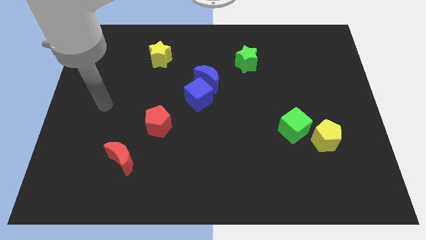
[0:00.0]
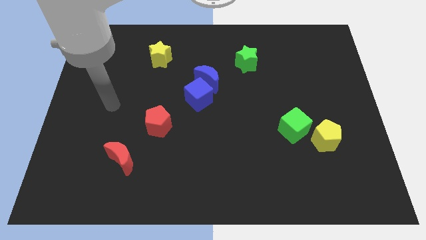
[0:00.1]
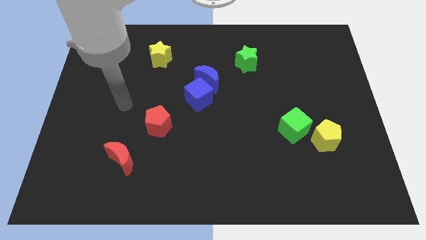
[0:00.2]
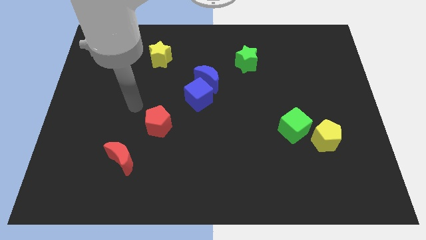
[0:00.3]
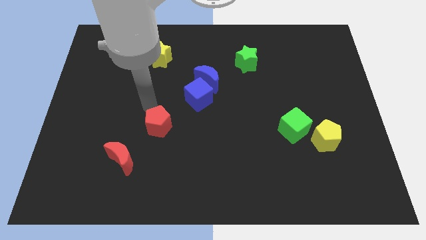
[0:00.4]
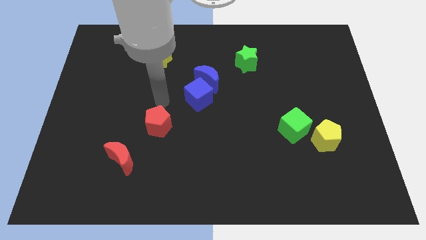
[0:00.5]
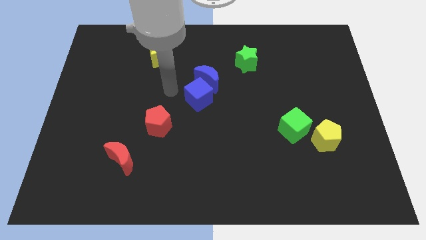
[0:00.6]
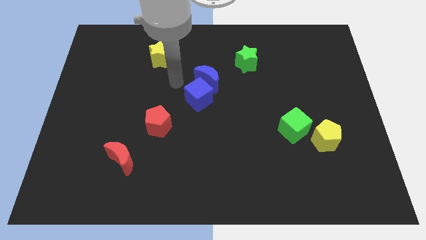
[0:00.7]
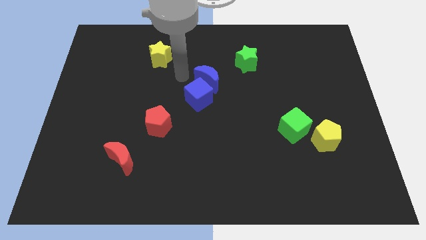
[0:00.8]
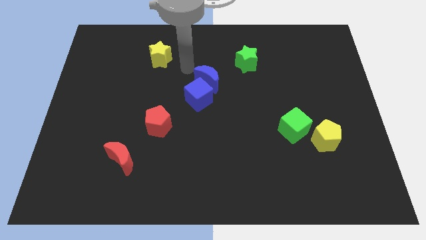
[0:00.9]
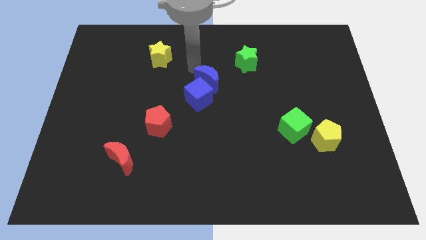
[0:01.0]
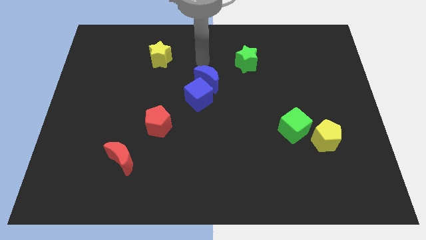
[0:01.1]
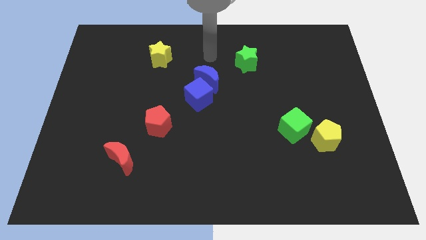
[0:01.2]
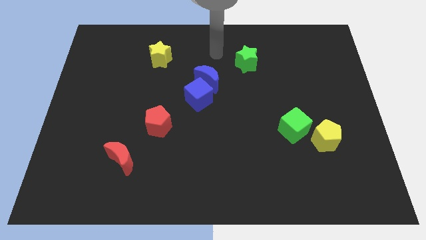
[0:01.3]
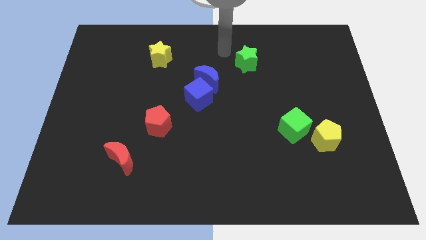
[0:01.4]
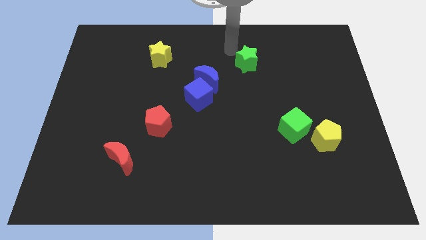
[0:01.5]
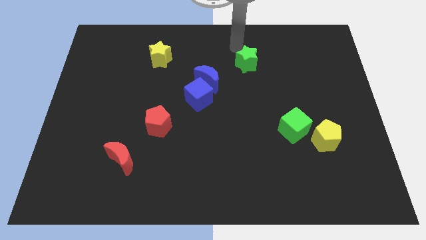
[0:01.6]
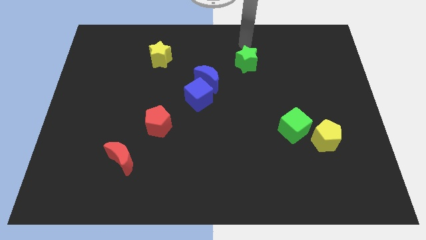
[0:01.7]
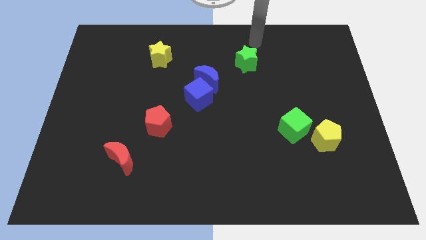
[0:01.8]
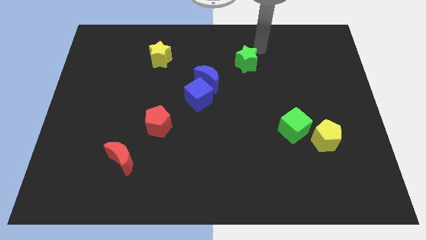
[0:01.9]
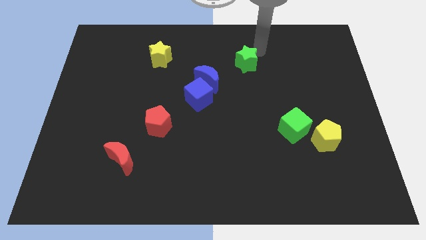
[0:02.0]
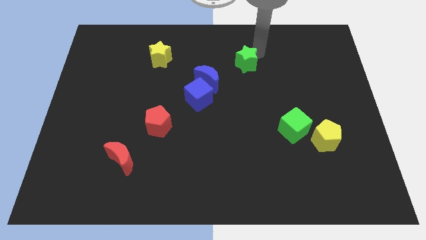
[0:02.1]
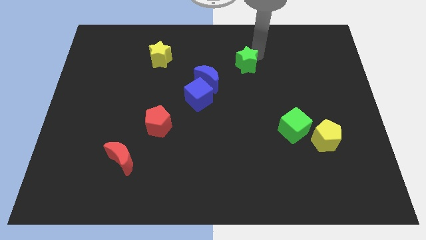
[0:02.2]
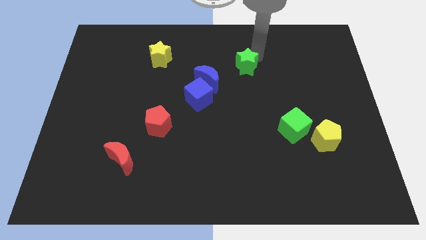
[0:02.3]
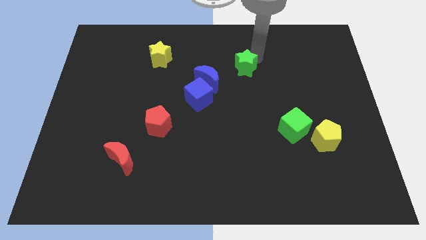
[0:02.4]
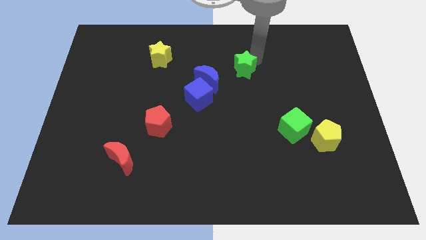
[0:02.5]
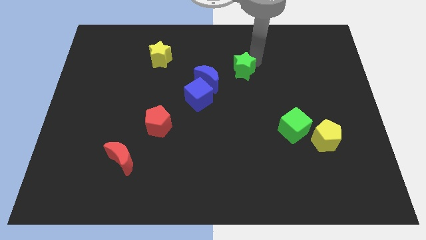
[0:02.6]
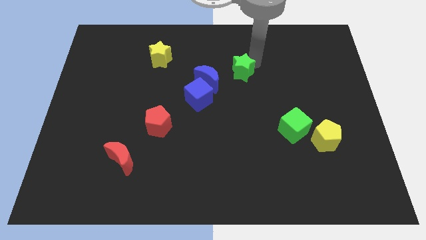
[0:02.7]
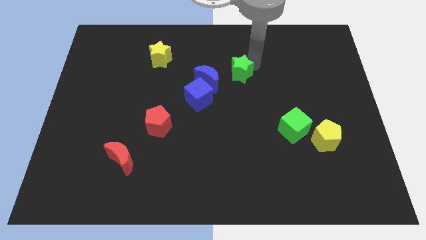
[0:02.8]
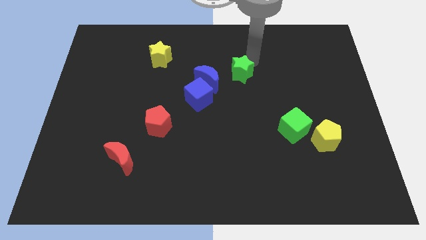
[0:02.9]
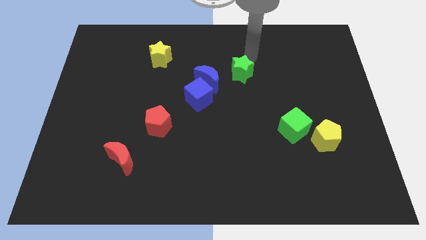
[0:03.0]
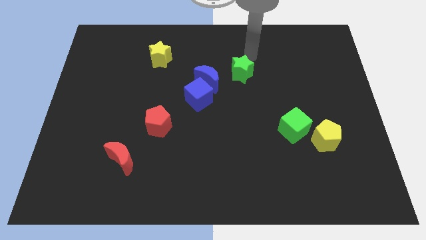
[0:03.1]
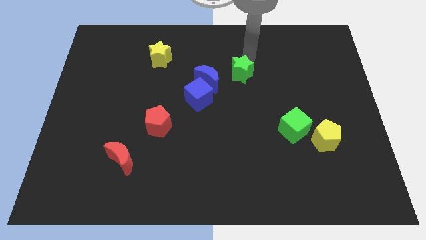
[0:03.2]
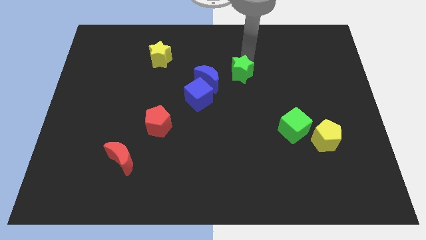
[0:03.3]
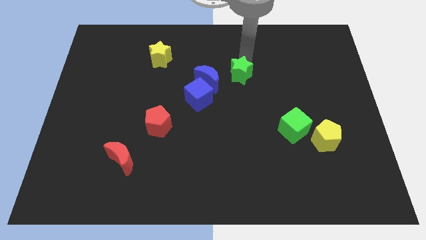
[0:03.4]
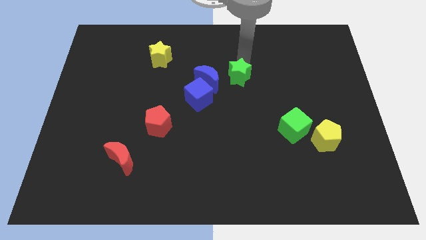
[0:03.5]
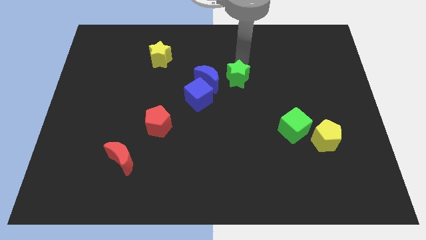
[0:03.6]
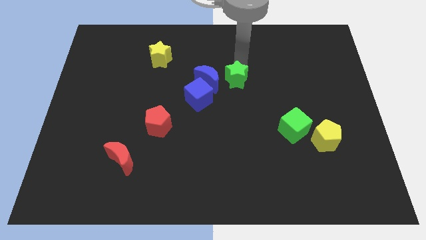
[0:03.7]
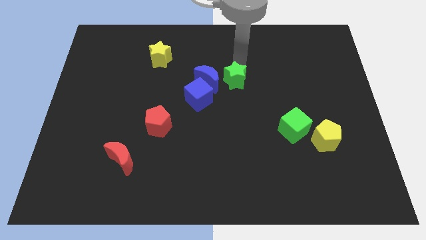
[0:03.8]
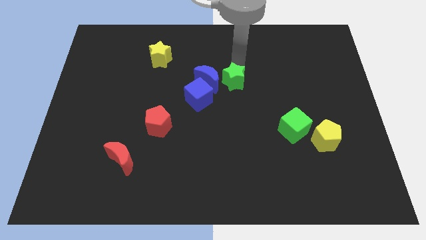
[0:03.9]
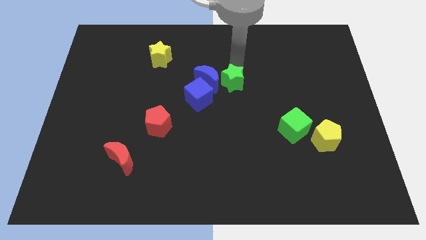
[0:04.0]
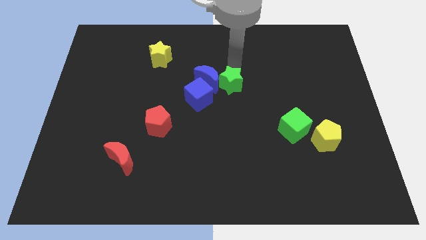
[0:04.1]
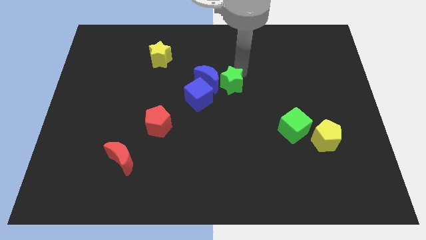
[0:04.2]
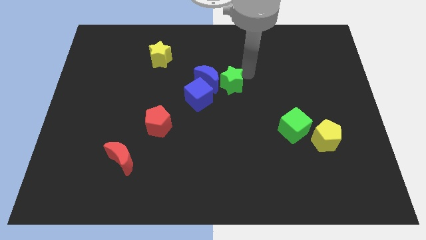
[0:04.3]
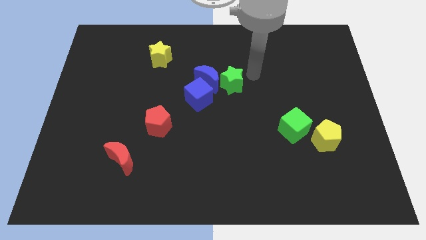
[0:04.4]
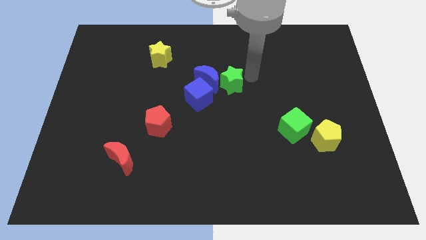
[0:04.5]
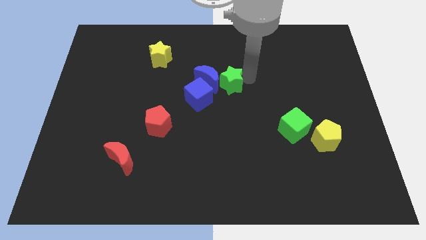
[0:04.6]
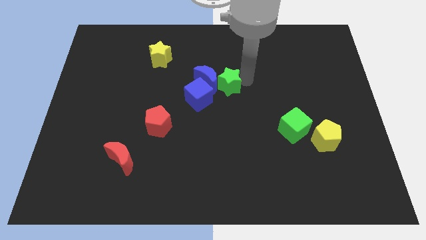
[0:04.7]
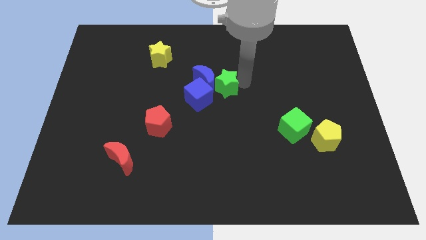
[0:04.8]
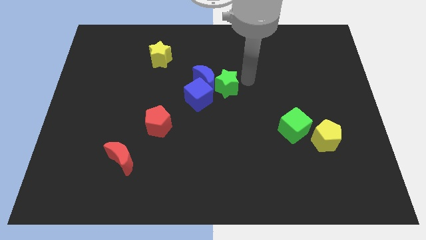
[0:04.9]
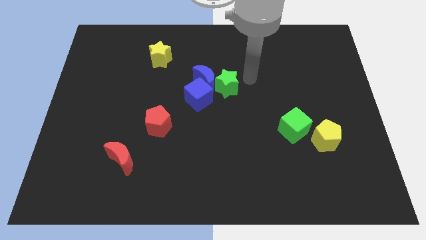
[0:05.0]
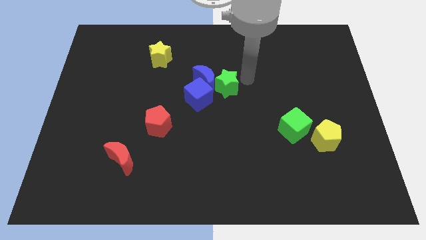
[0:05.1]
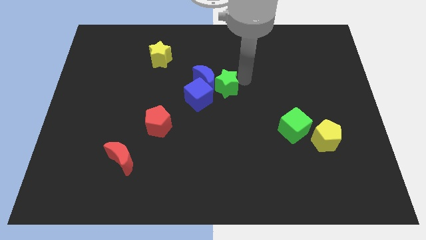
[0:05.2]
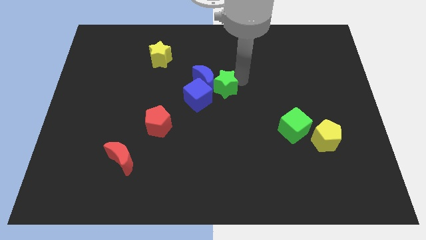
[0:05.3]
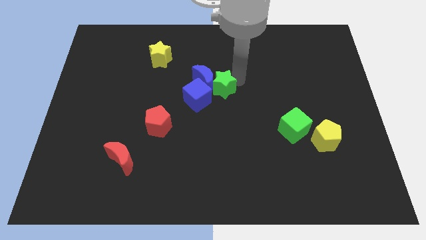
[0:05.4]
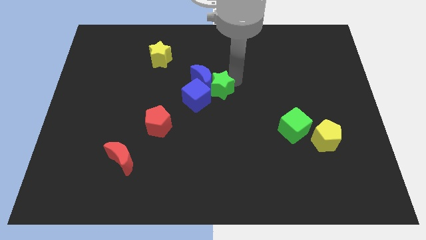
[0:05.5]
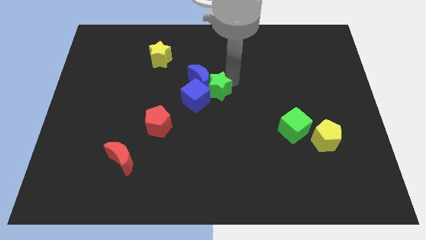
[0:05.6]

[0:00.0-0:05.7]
slide the green star next to the blue cube

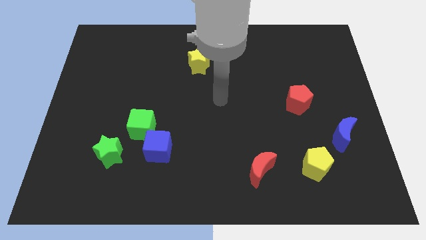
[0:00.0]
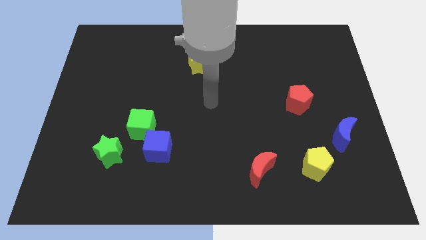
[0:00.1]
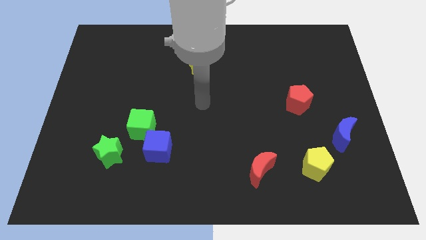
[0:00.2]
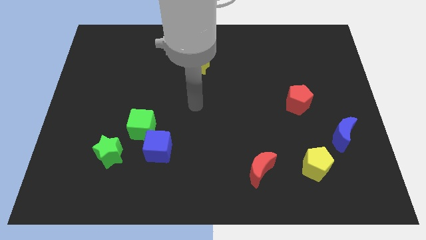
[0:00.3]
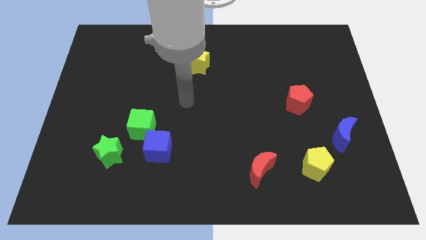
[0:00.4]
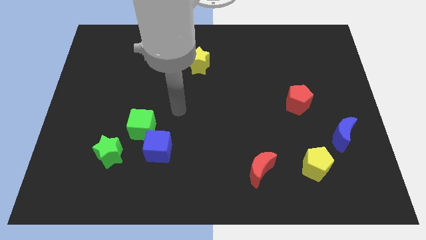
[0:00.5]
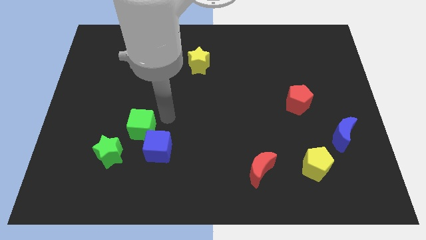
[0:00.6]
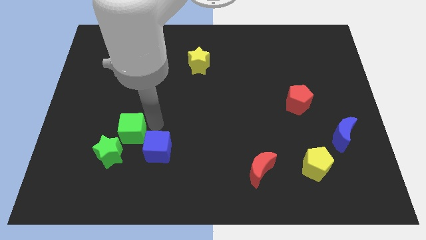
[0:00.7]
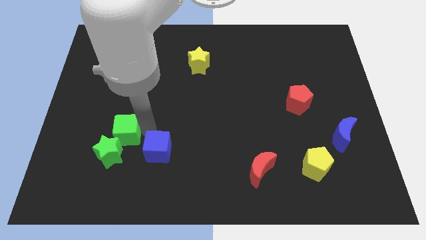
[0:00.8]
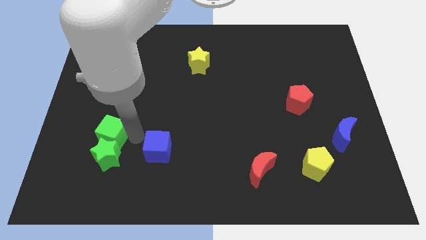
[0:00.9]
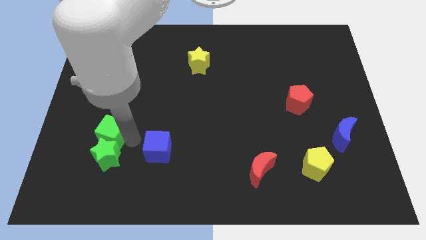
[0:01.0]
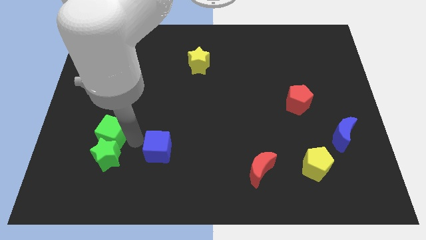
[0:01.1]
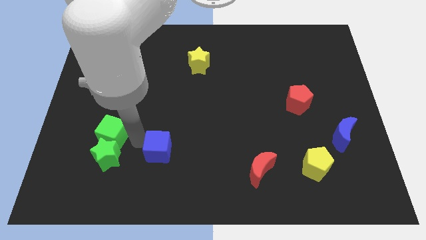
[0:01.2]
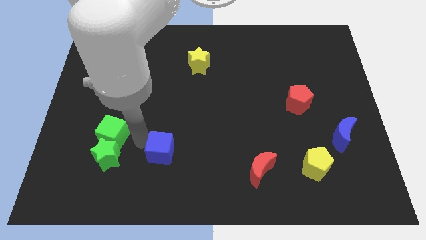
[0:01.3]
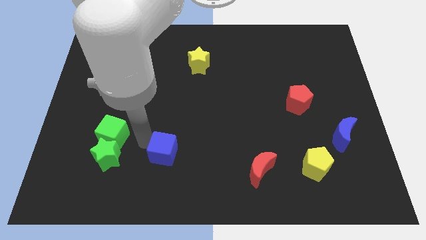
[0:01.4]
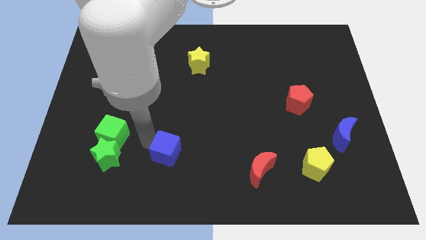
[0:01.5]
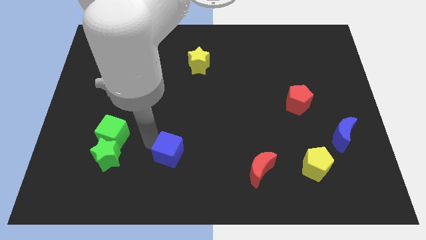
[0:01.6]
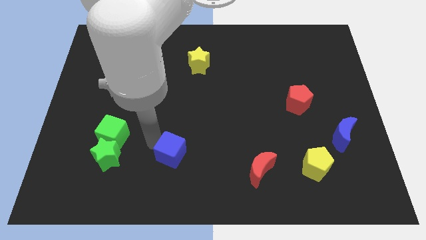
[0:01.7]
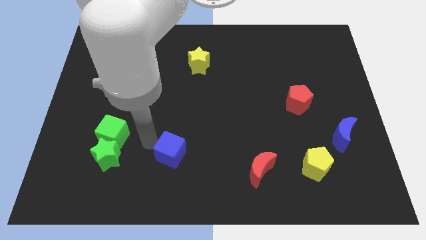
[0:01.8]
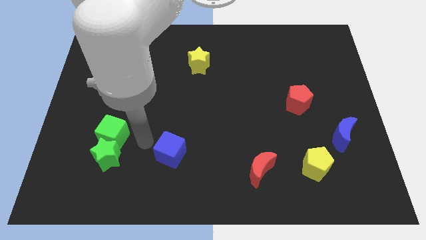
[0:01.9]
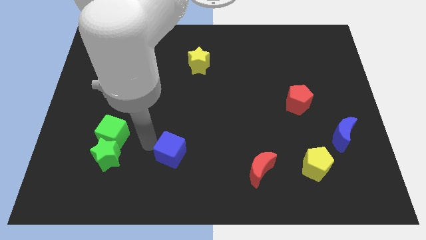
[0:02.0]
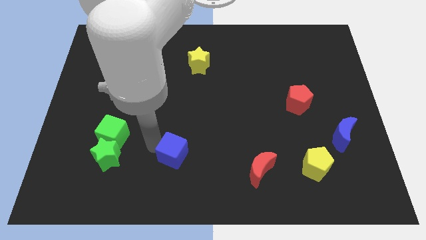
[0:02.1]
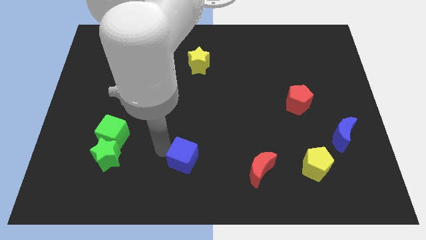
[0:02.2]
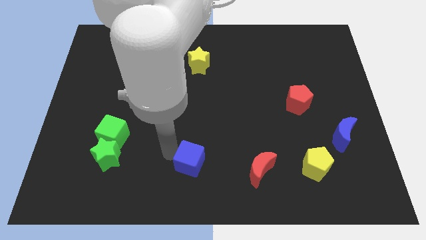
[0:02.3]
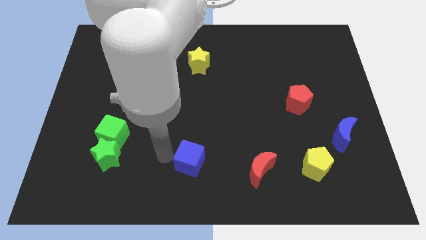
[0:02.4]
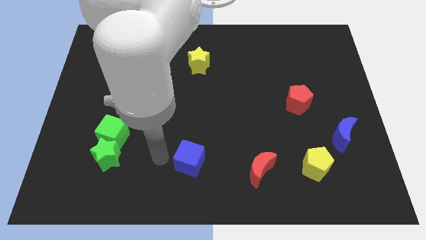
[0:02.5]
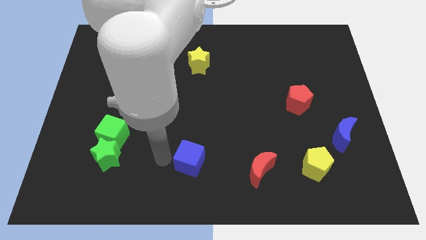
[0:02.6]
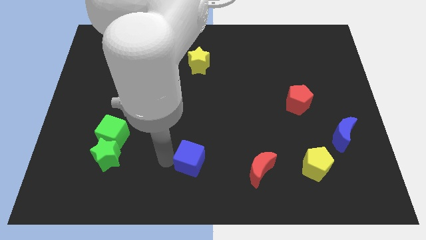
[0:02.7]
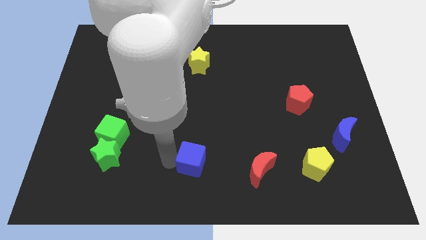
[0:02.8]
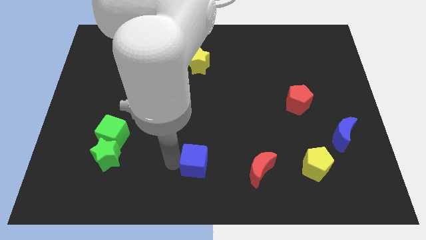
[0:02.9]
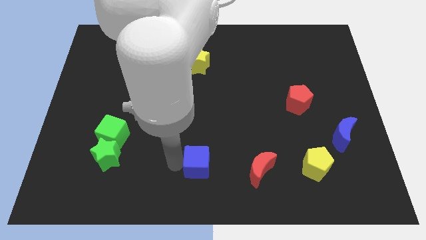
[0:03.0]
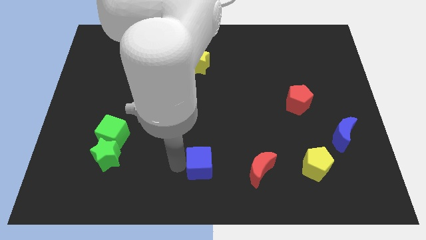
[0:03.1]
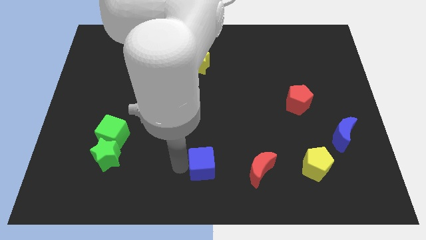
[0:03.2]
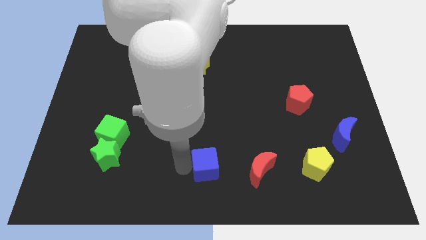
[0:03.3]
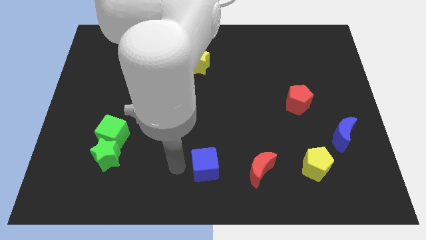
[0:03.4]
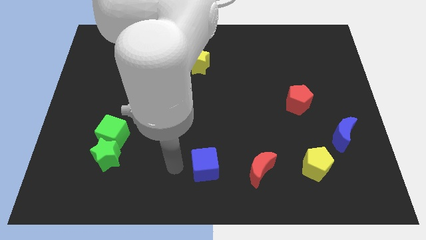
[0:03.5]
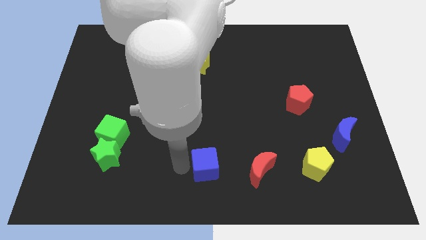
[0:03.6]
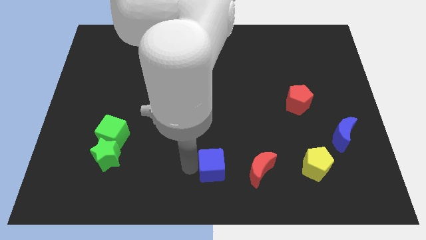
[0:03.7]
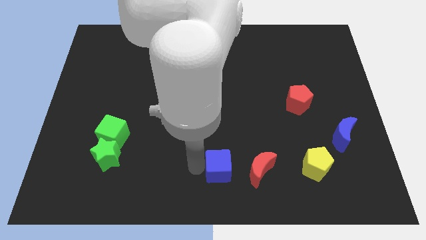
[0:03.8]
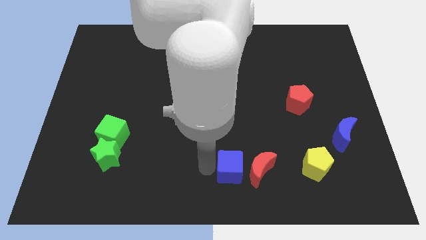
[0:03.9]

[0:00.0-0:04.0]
slide the blue cube close to the red moon
